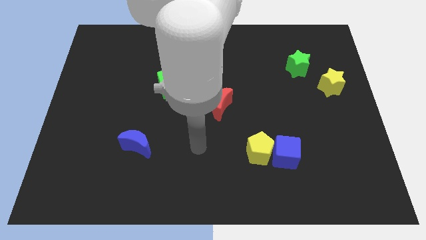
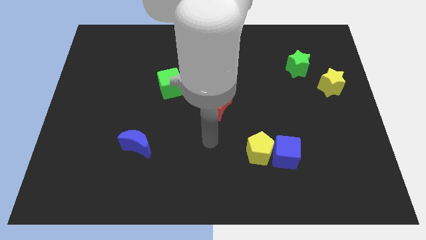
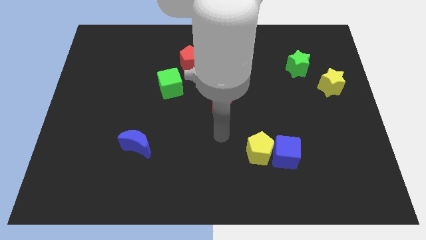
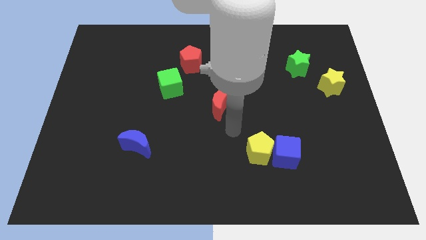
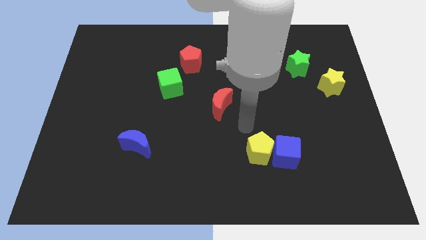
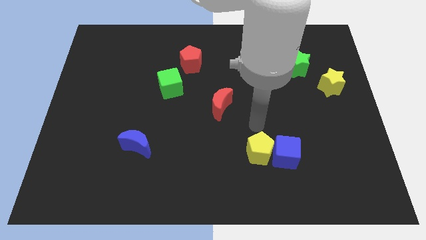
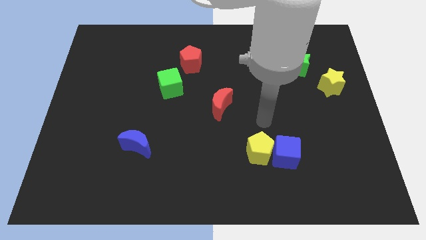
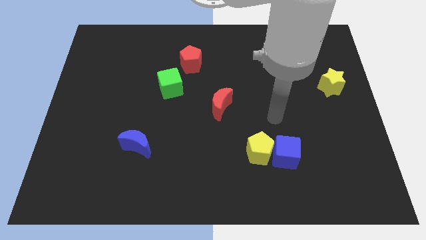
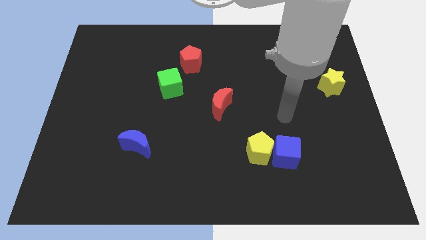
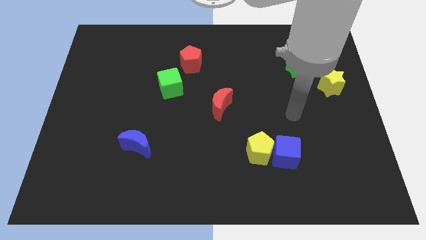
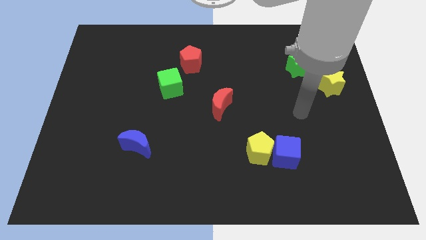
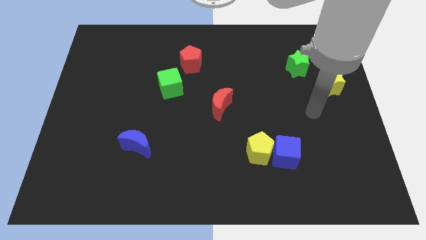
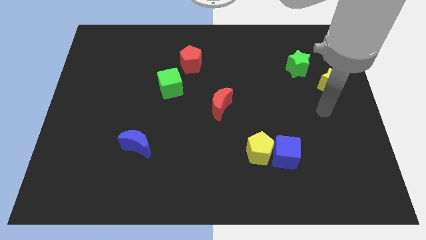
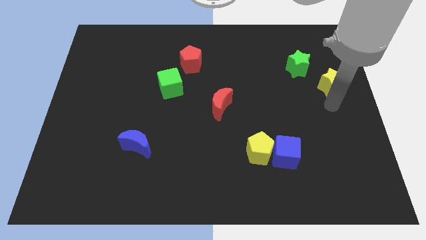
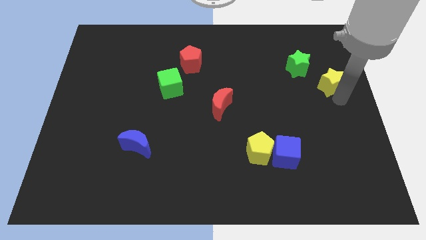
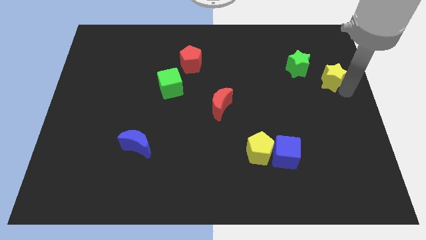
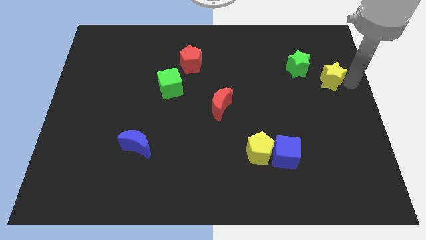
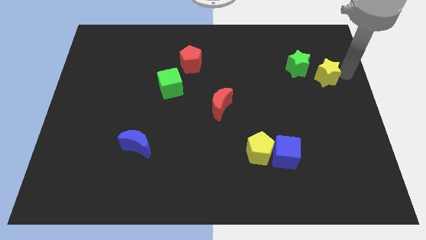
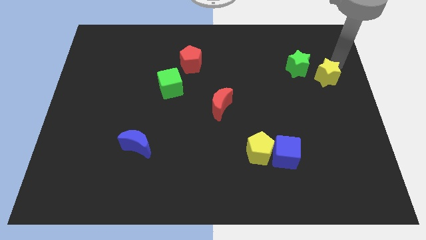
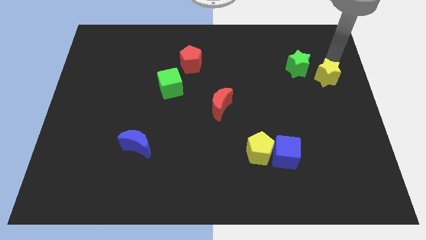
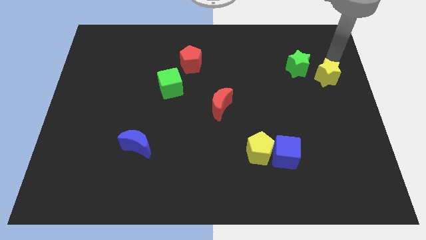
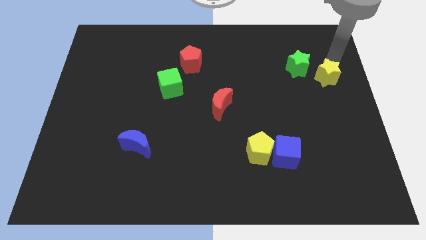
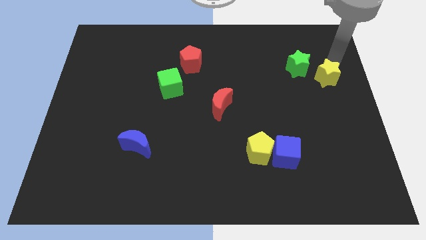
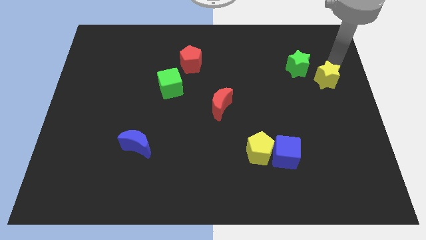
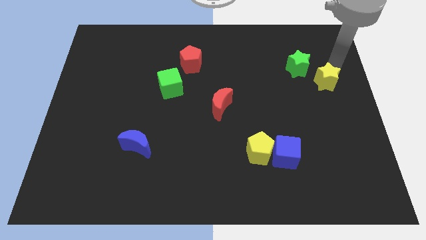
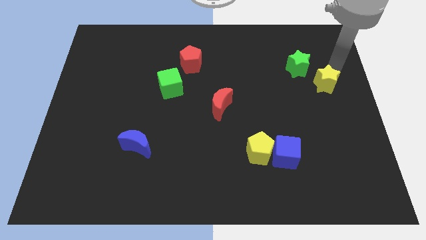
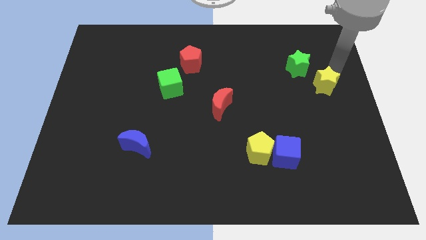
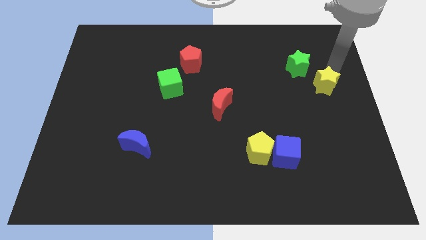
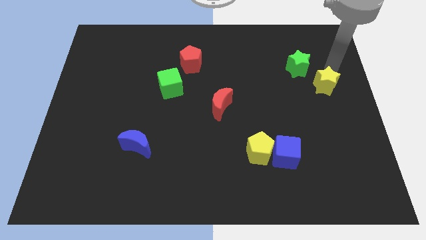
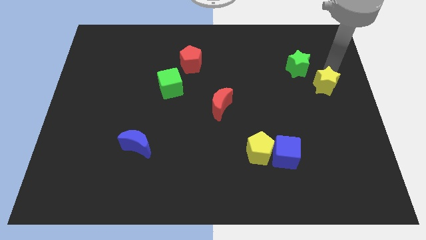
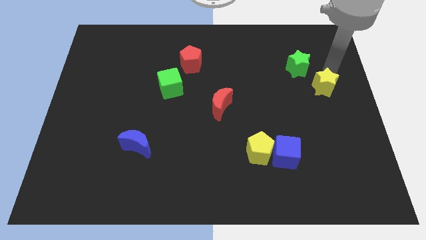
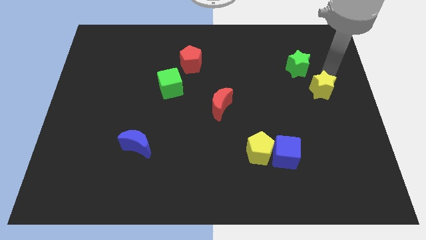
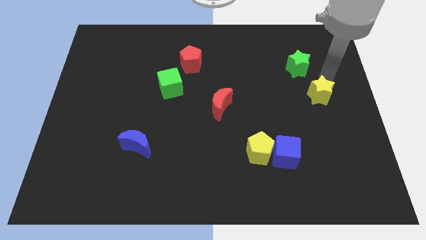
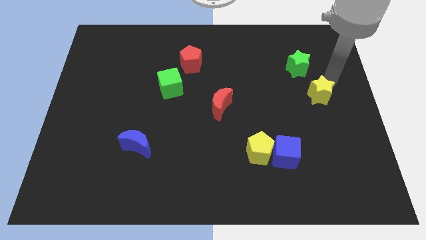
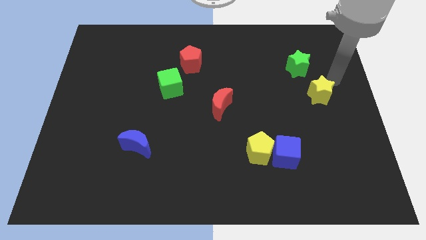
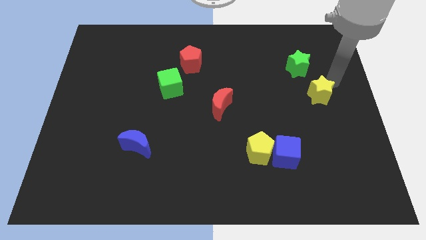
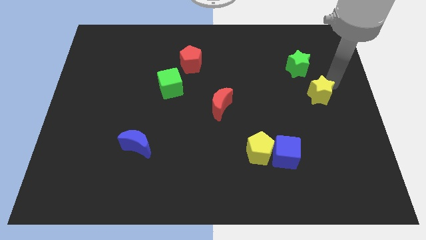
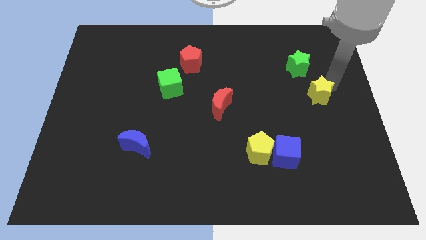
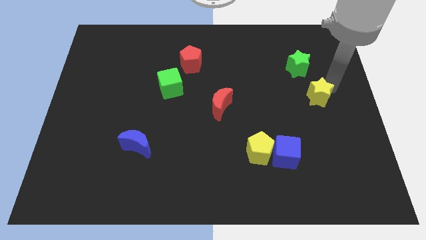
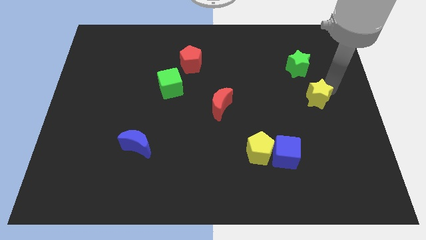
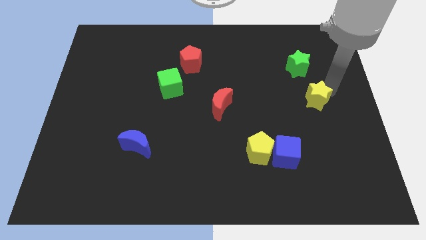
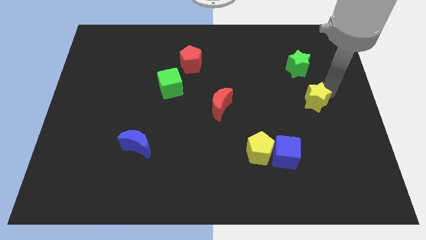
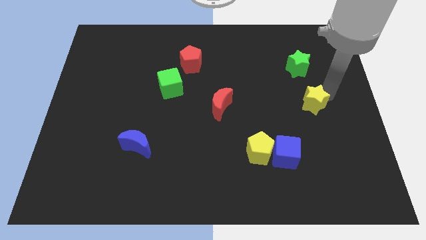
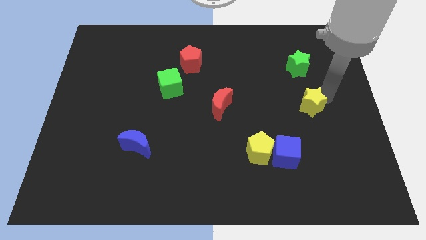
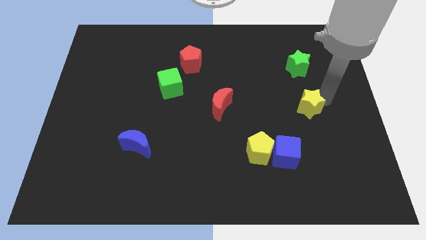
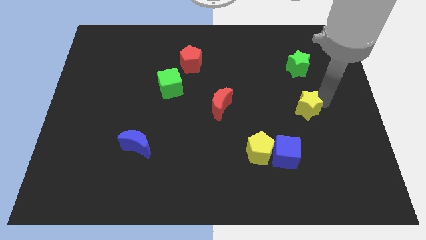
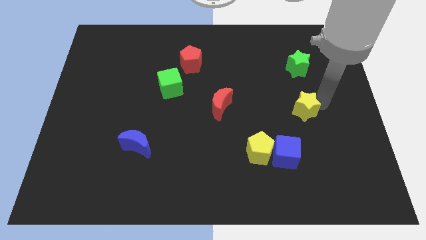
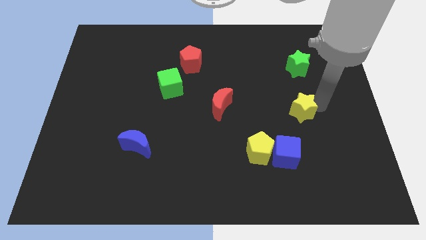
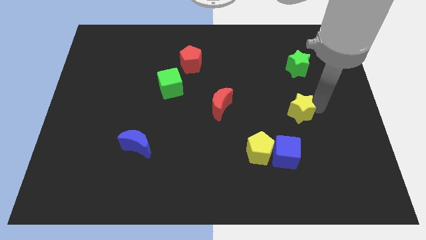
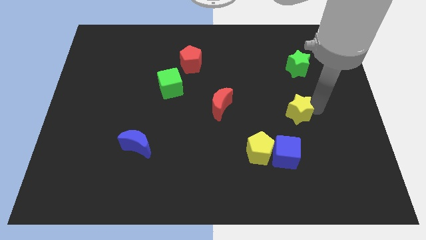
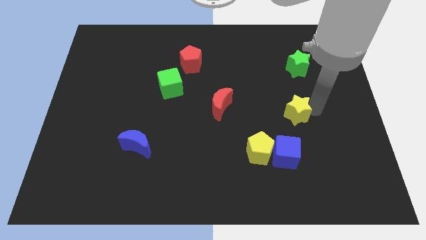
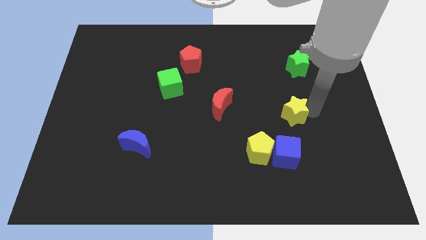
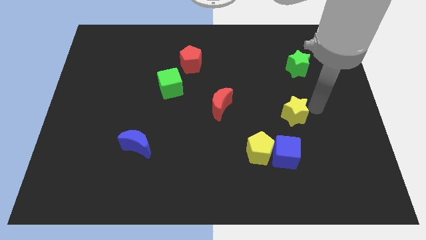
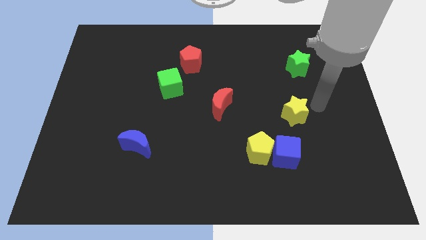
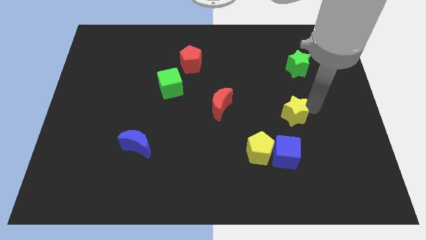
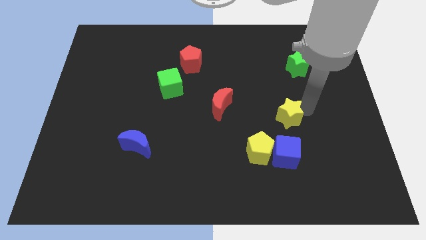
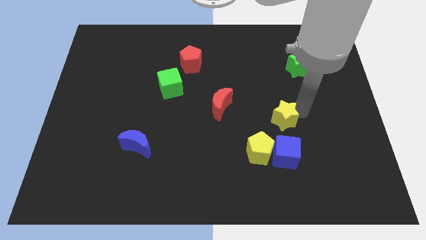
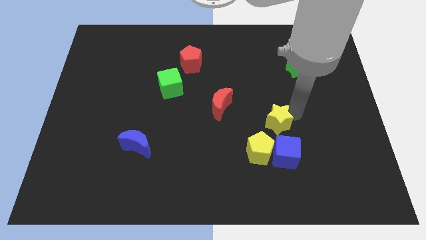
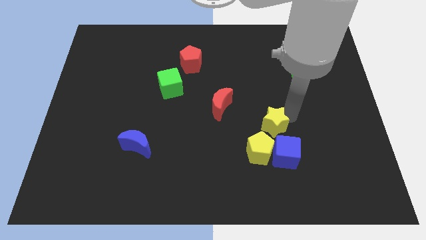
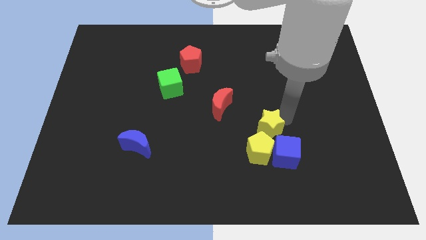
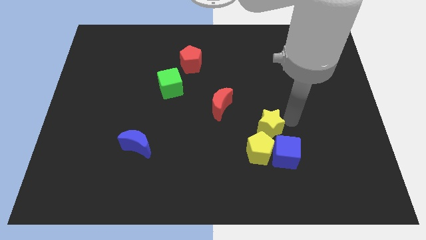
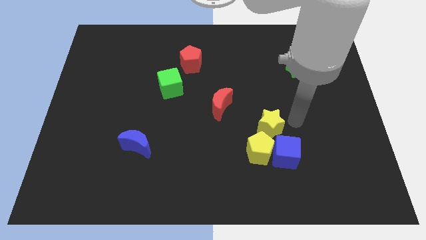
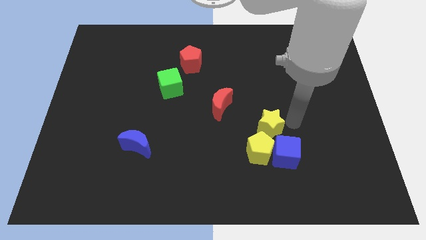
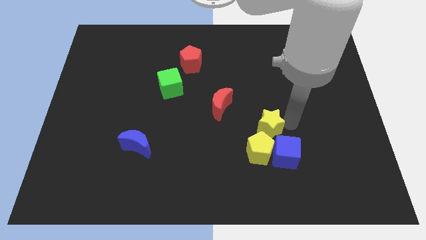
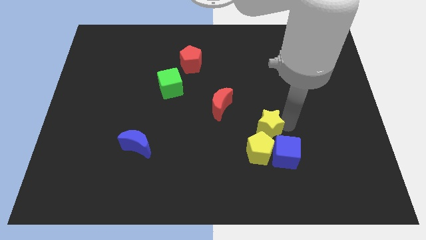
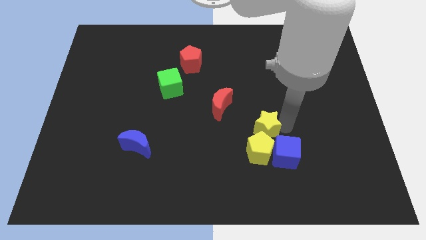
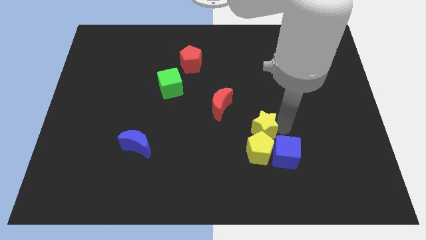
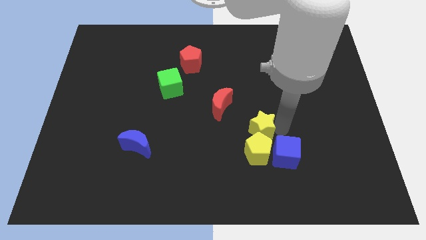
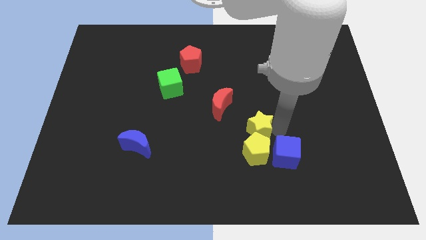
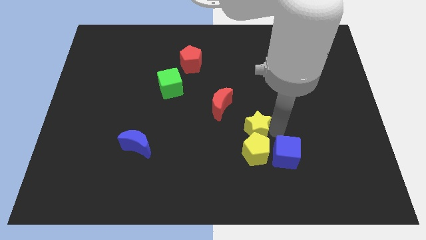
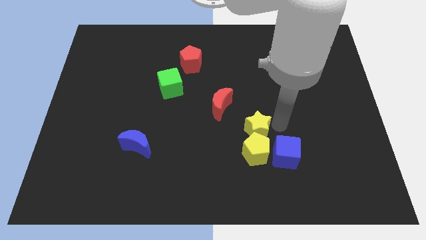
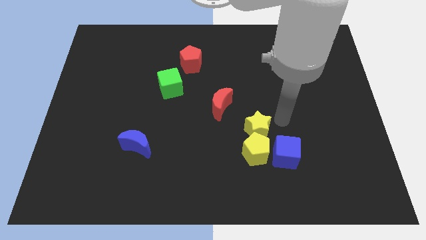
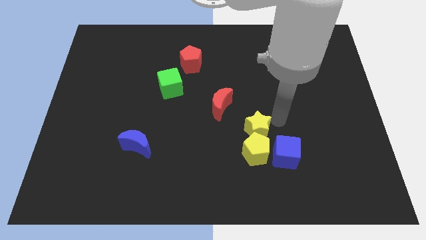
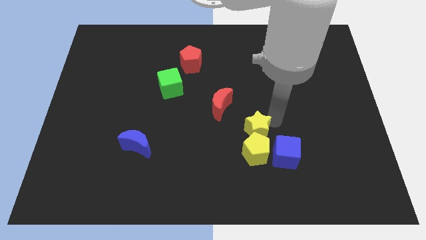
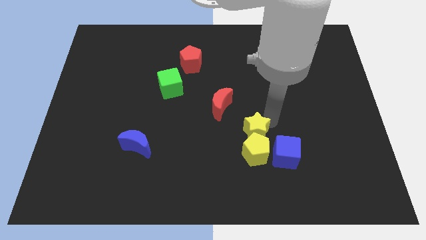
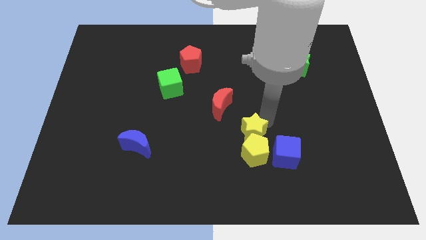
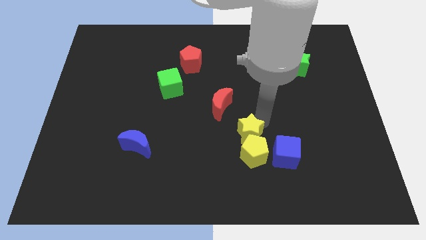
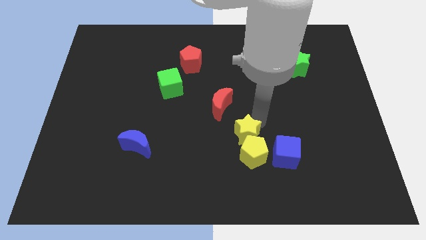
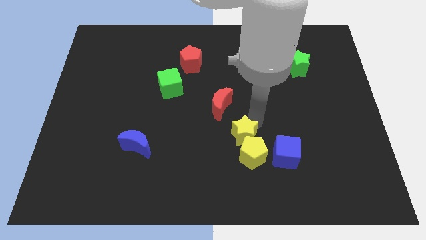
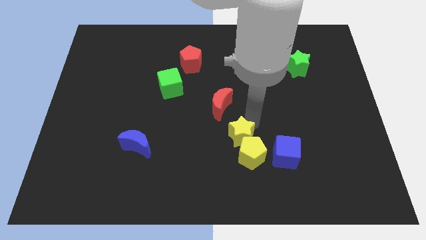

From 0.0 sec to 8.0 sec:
move the yellow star below the red moon
